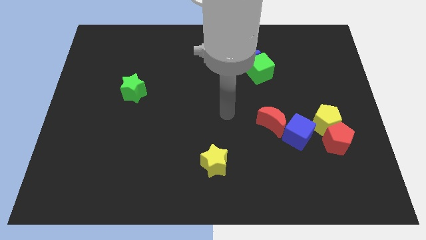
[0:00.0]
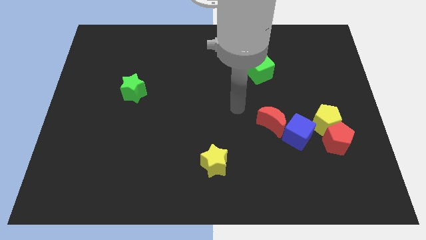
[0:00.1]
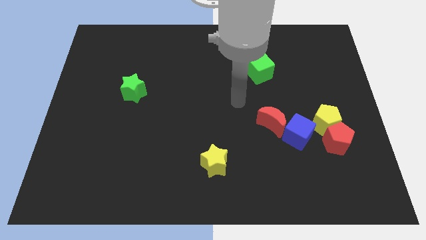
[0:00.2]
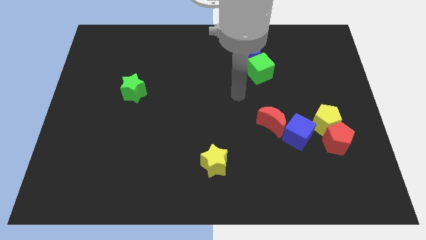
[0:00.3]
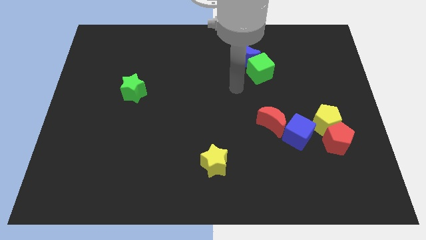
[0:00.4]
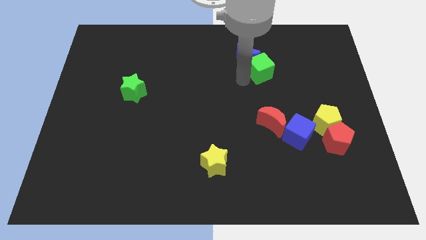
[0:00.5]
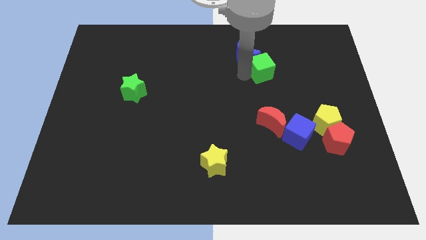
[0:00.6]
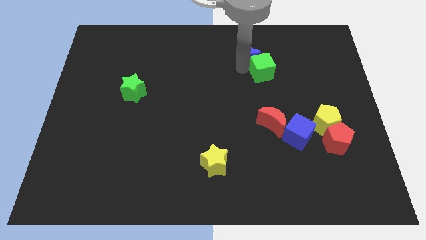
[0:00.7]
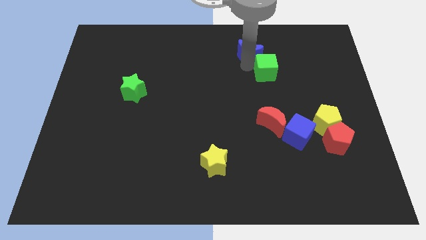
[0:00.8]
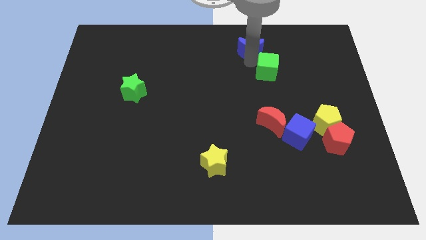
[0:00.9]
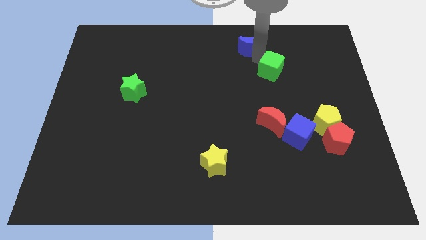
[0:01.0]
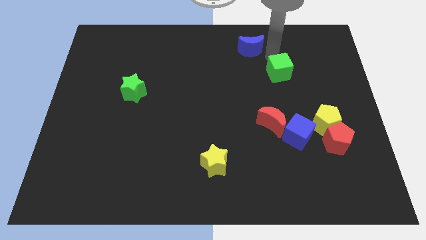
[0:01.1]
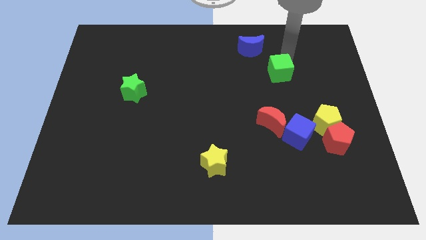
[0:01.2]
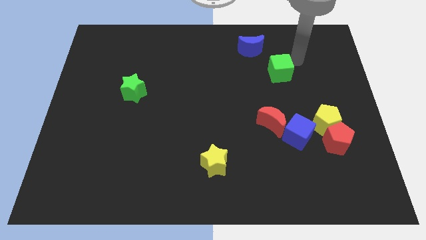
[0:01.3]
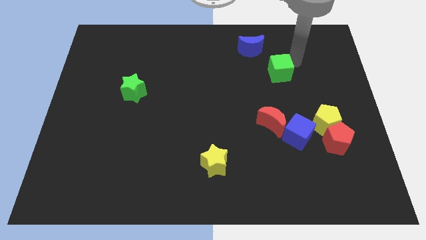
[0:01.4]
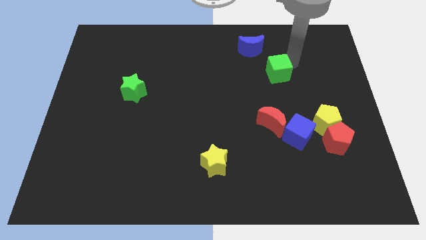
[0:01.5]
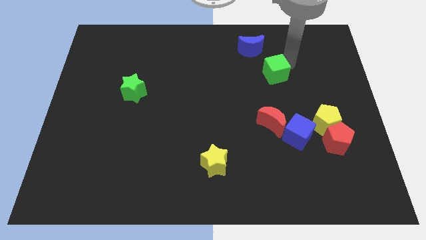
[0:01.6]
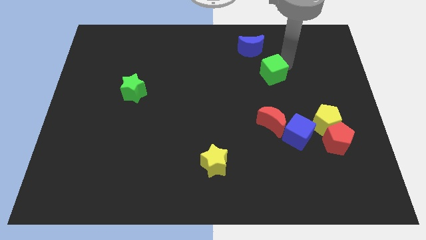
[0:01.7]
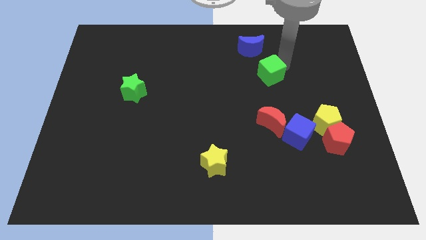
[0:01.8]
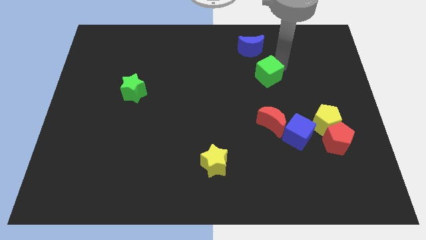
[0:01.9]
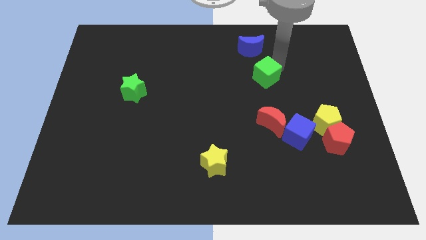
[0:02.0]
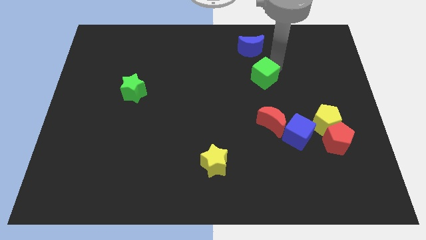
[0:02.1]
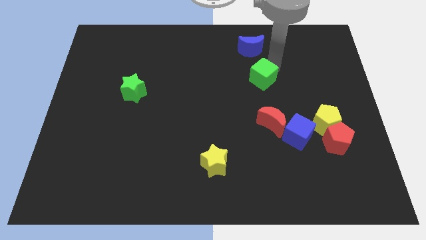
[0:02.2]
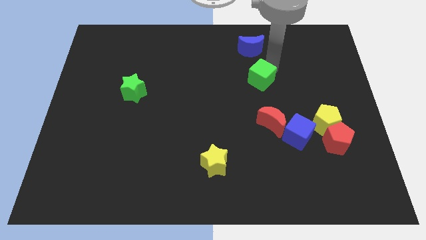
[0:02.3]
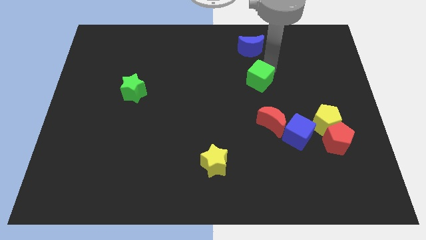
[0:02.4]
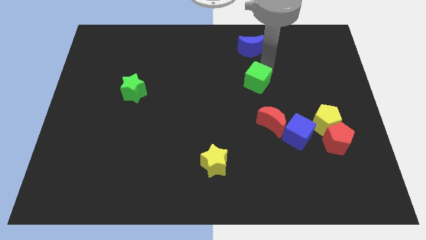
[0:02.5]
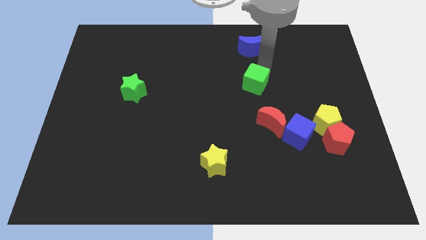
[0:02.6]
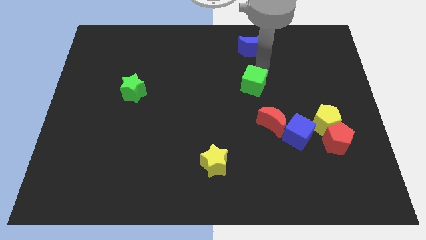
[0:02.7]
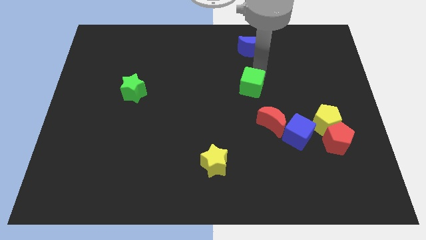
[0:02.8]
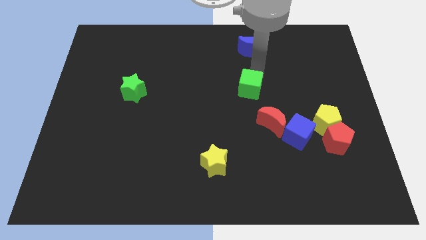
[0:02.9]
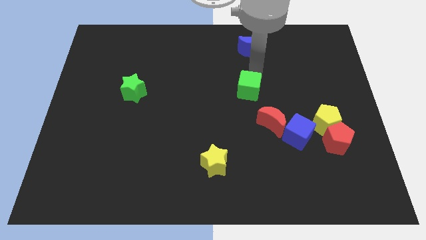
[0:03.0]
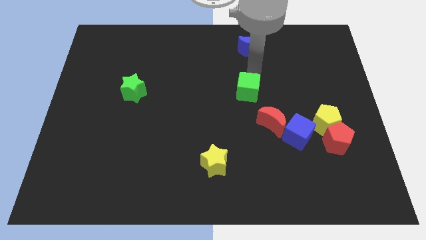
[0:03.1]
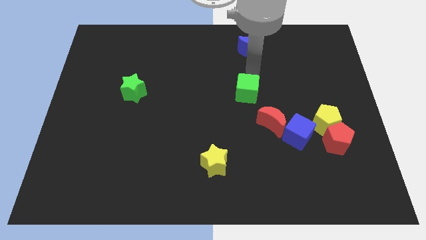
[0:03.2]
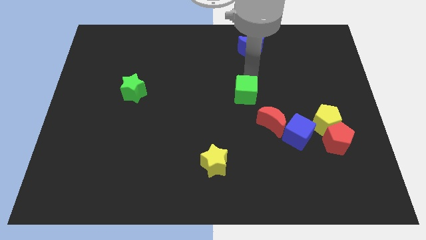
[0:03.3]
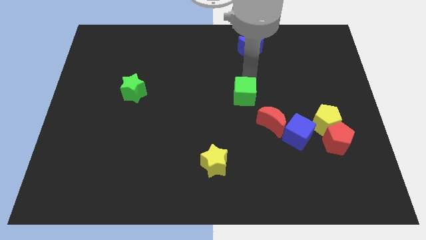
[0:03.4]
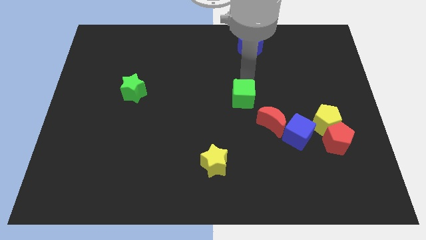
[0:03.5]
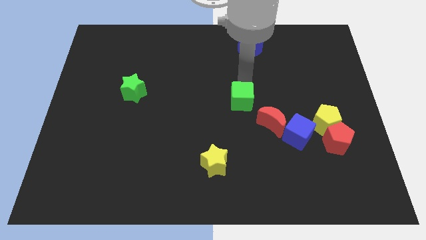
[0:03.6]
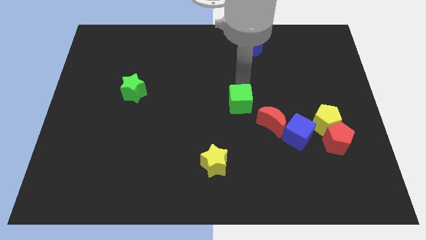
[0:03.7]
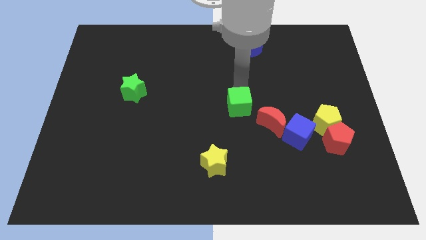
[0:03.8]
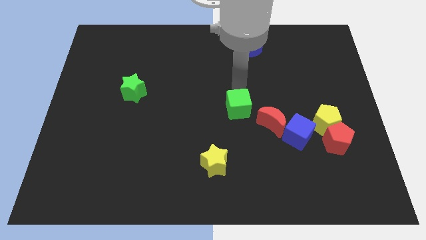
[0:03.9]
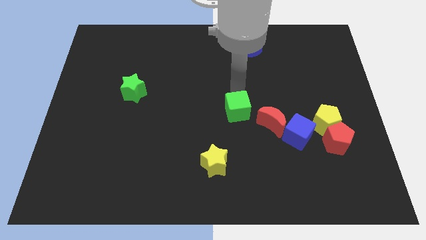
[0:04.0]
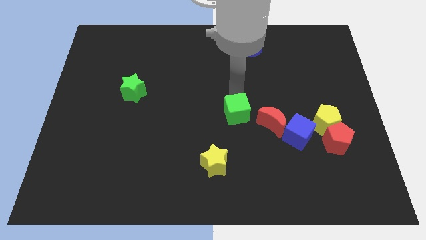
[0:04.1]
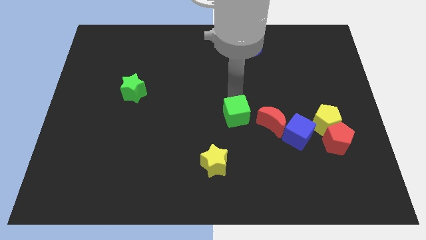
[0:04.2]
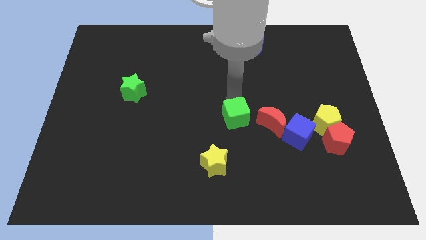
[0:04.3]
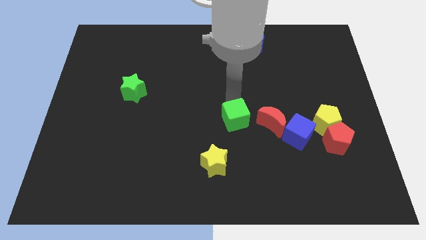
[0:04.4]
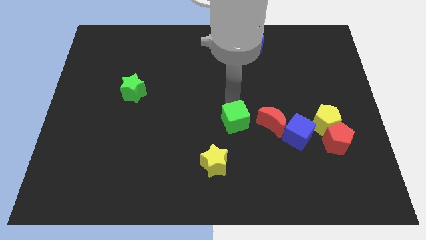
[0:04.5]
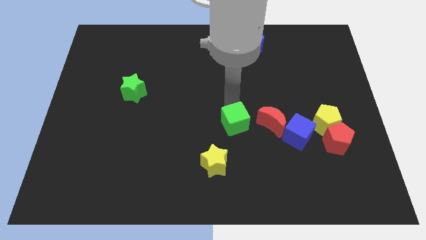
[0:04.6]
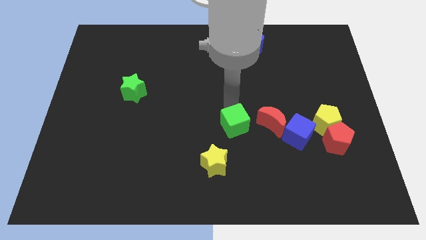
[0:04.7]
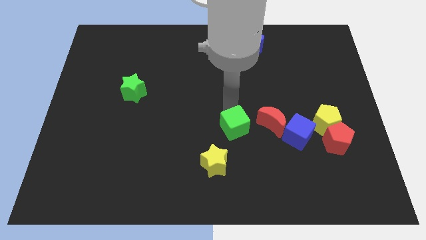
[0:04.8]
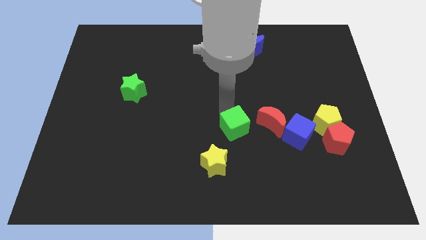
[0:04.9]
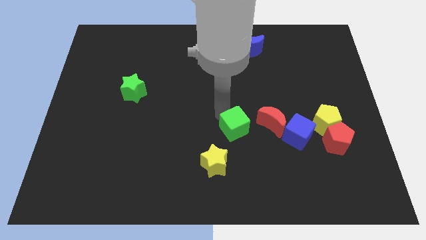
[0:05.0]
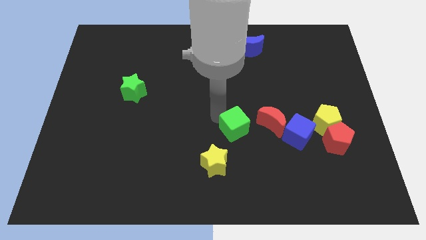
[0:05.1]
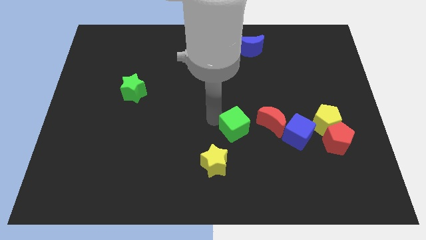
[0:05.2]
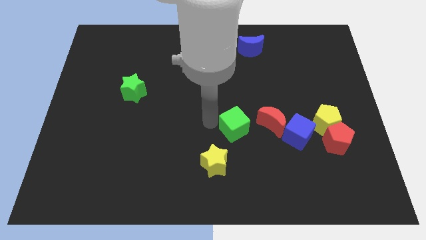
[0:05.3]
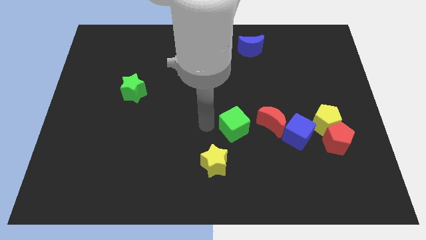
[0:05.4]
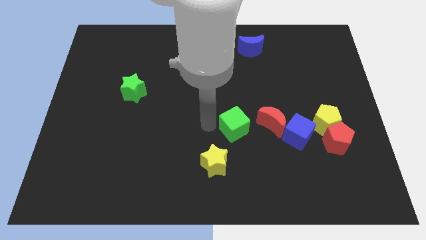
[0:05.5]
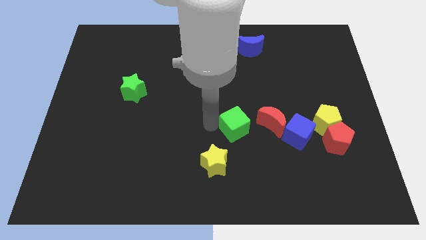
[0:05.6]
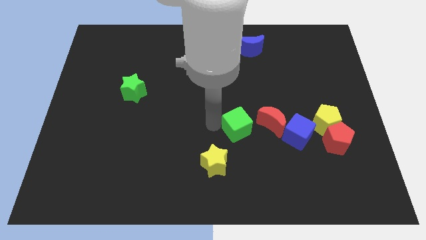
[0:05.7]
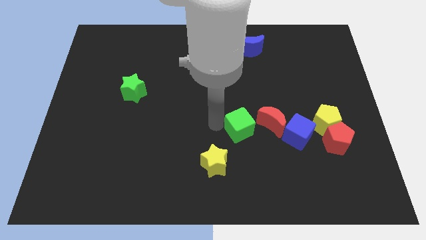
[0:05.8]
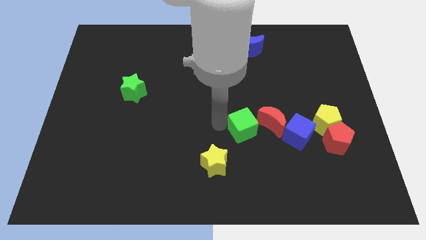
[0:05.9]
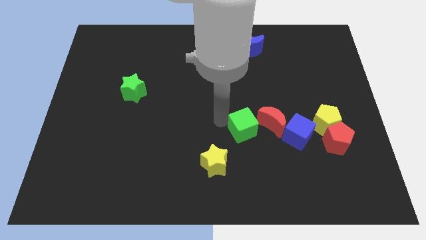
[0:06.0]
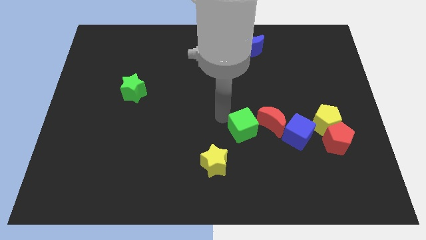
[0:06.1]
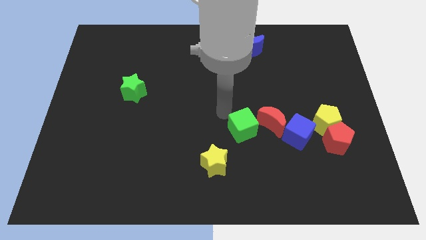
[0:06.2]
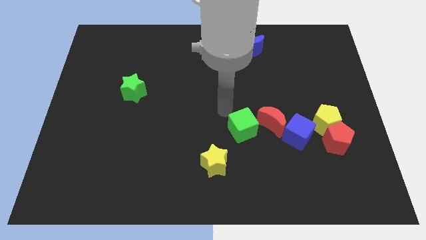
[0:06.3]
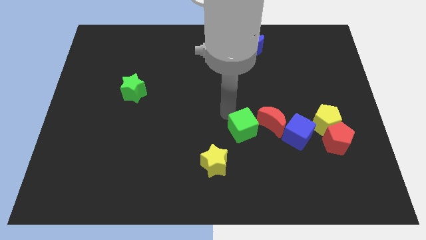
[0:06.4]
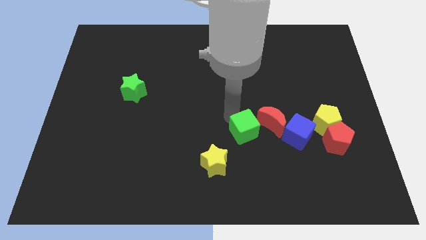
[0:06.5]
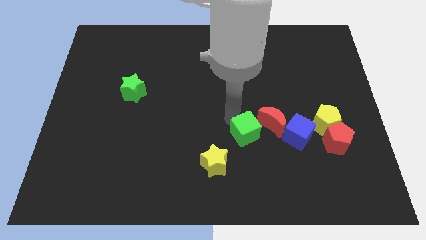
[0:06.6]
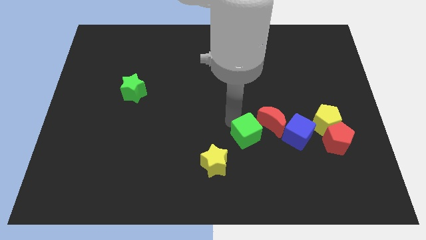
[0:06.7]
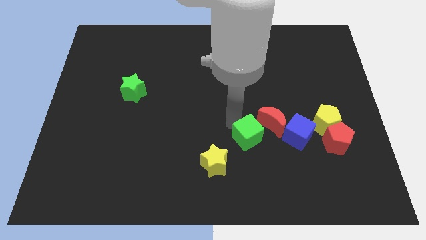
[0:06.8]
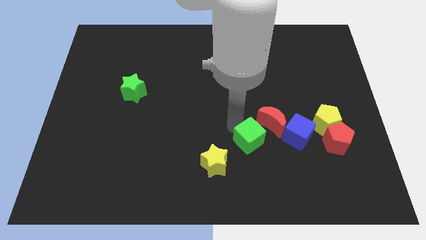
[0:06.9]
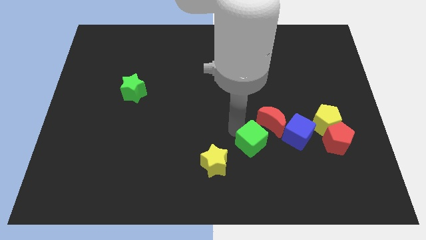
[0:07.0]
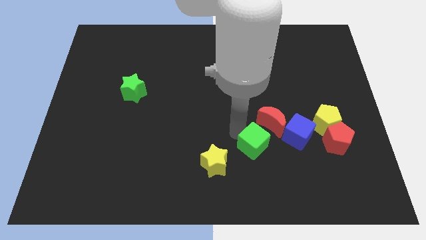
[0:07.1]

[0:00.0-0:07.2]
put the green cube below the red moon
